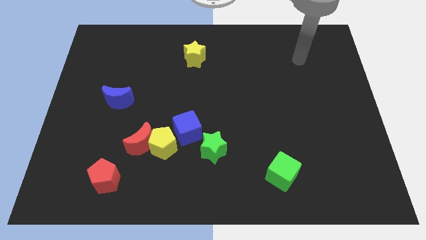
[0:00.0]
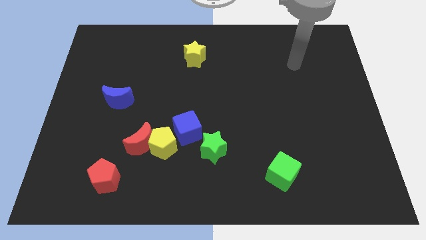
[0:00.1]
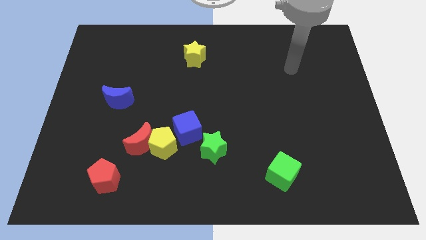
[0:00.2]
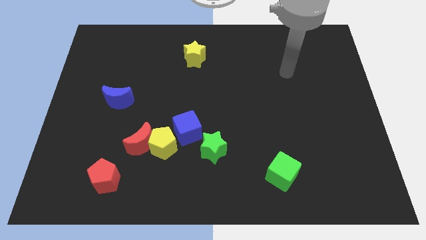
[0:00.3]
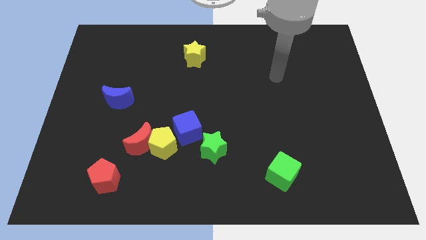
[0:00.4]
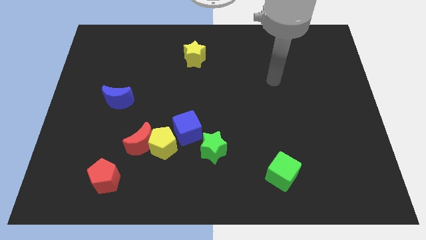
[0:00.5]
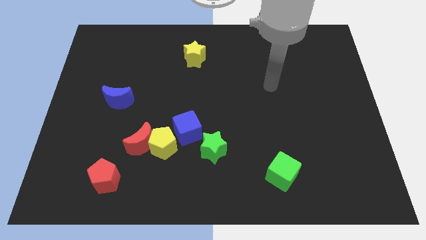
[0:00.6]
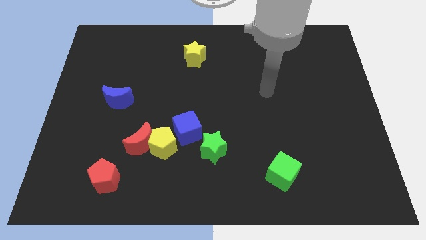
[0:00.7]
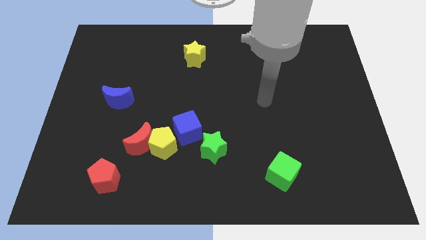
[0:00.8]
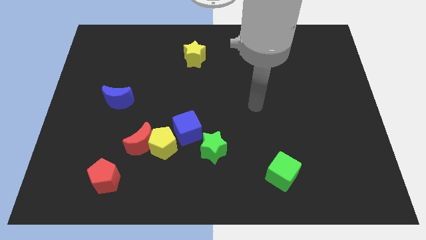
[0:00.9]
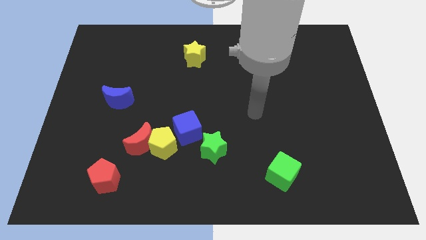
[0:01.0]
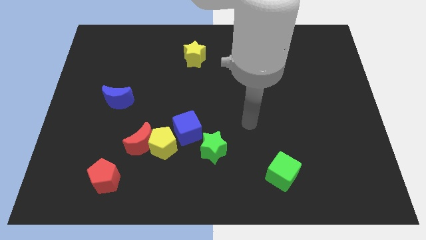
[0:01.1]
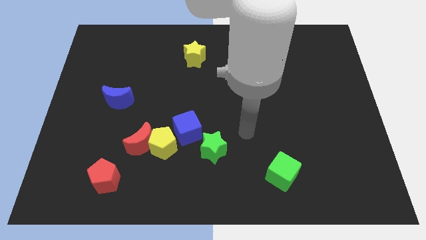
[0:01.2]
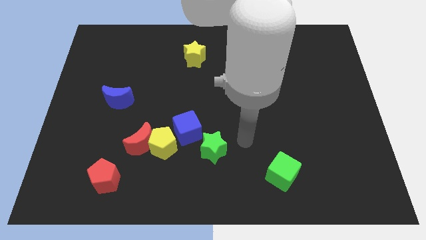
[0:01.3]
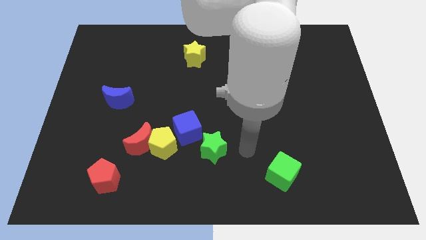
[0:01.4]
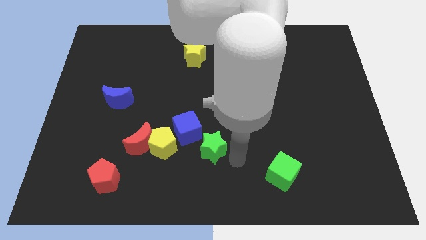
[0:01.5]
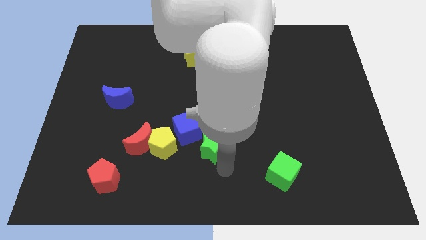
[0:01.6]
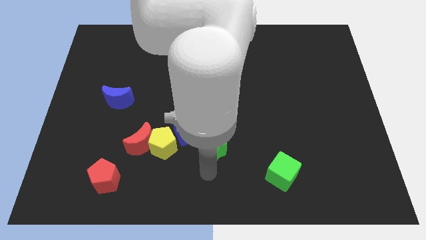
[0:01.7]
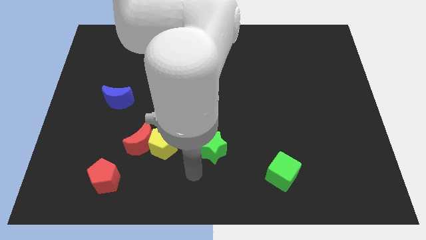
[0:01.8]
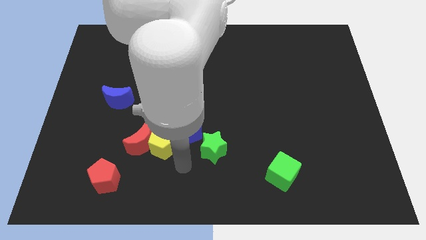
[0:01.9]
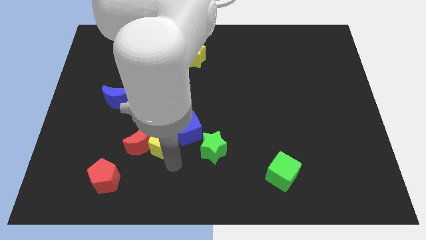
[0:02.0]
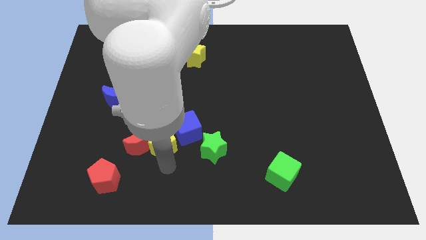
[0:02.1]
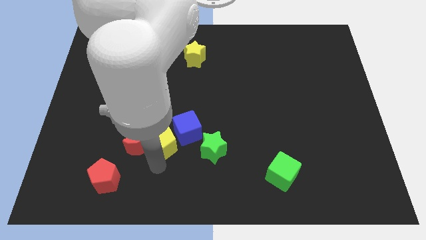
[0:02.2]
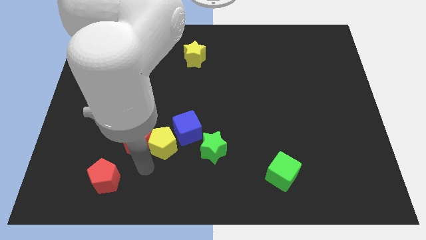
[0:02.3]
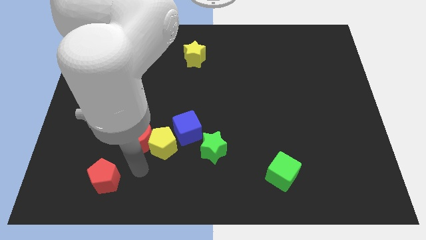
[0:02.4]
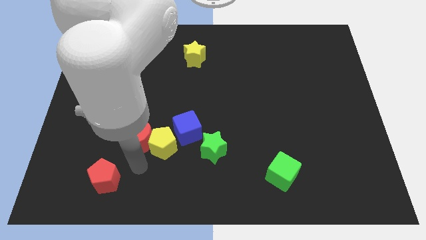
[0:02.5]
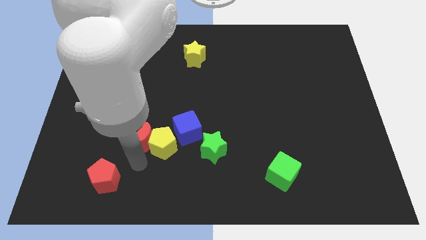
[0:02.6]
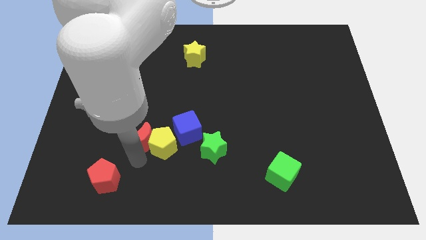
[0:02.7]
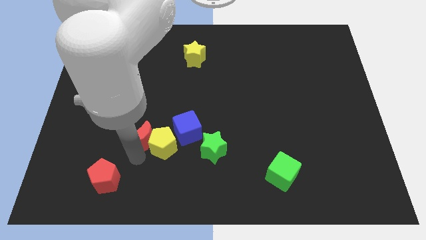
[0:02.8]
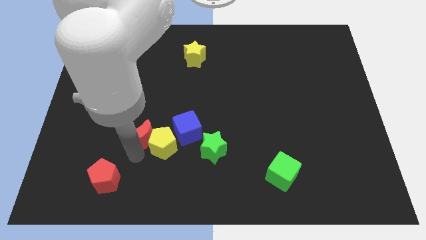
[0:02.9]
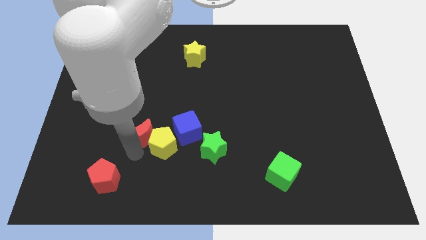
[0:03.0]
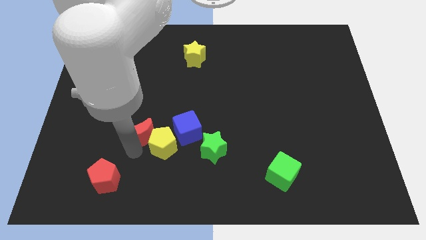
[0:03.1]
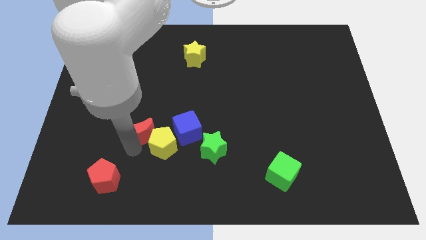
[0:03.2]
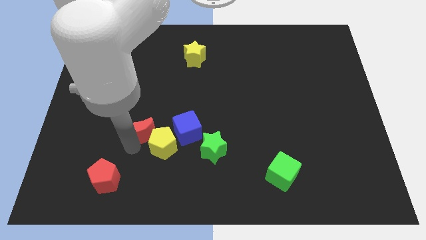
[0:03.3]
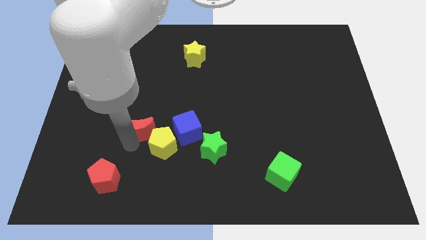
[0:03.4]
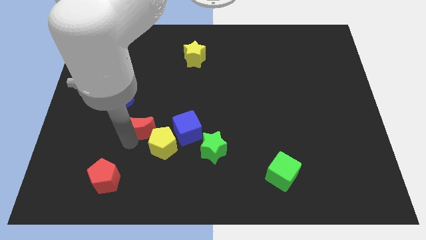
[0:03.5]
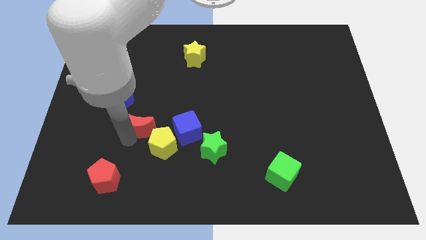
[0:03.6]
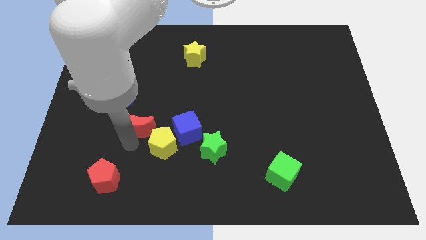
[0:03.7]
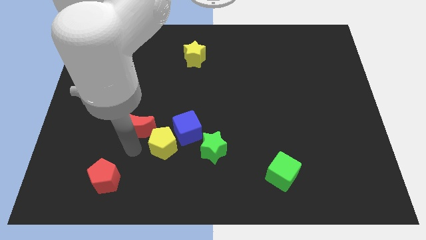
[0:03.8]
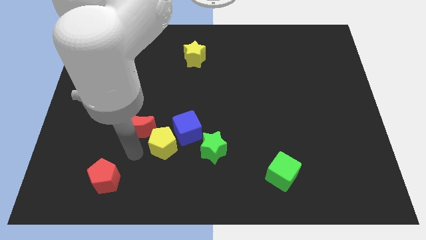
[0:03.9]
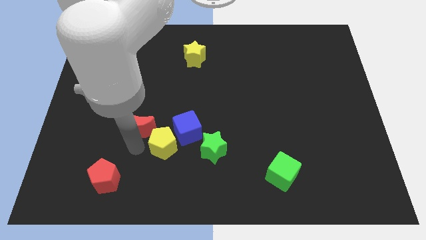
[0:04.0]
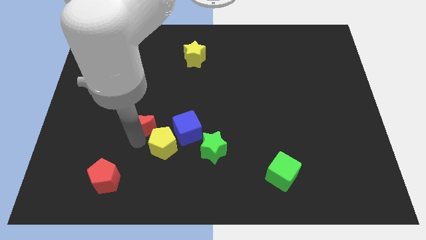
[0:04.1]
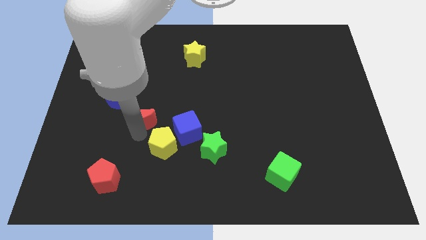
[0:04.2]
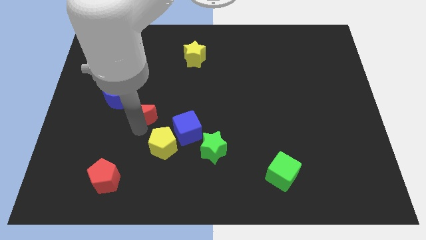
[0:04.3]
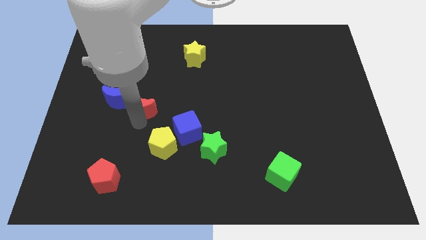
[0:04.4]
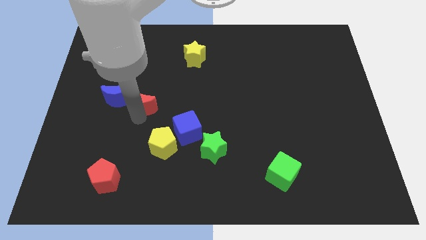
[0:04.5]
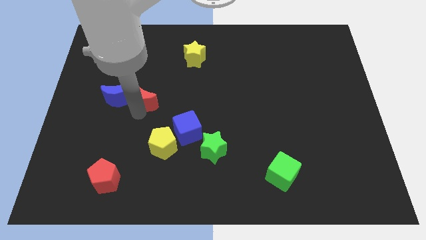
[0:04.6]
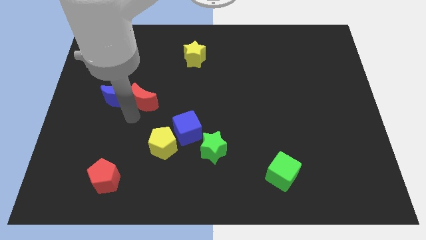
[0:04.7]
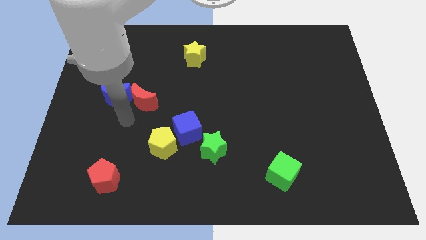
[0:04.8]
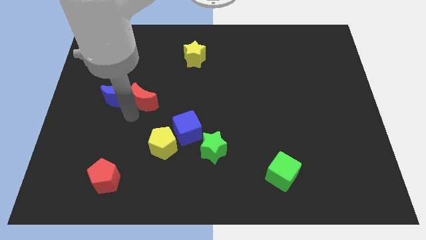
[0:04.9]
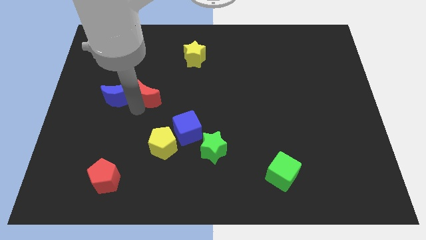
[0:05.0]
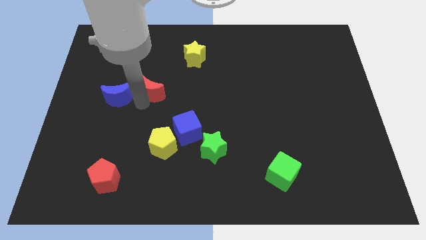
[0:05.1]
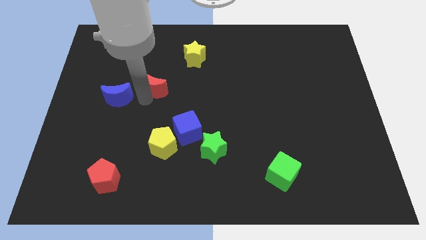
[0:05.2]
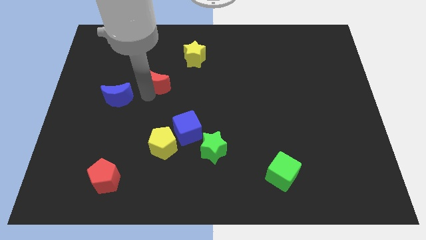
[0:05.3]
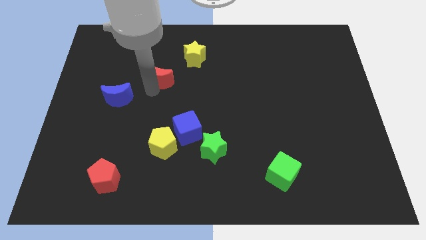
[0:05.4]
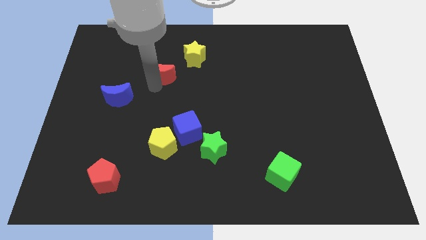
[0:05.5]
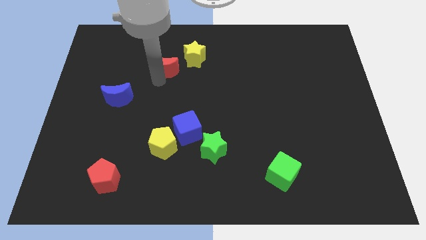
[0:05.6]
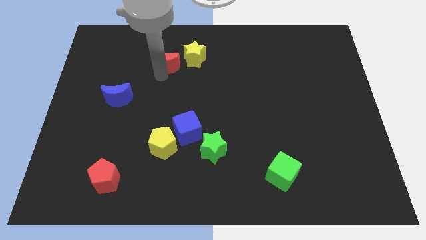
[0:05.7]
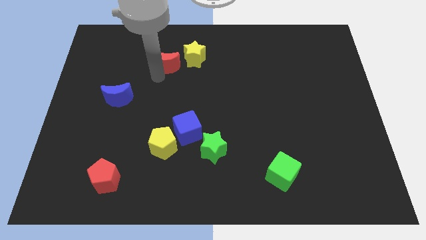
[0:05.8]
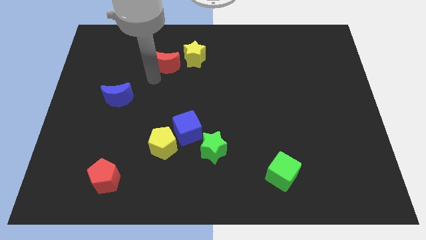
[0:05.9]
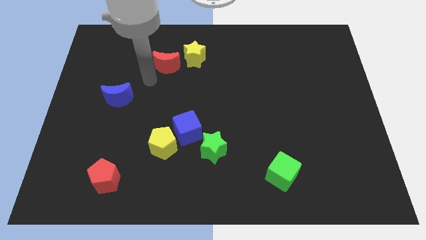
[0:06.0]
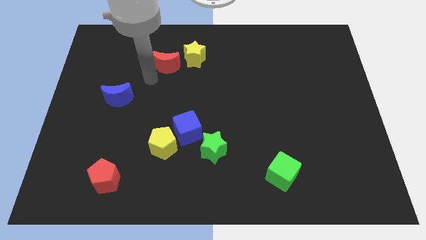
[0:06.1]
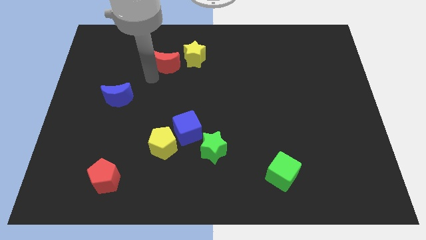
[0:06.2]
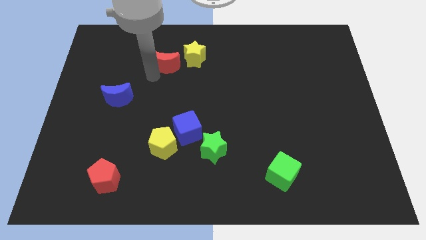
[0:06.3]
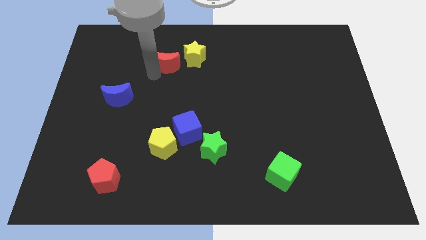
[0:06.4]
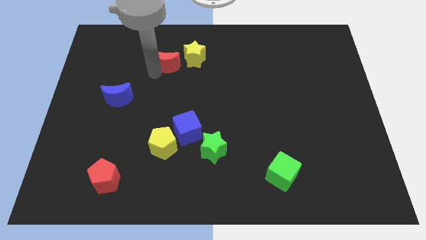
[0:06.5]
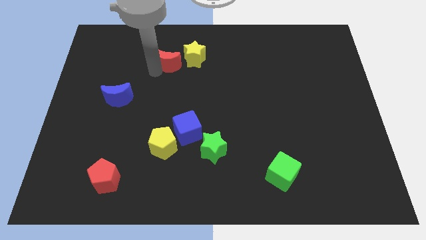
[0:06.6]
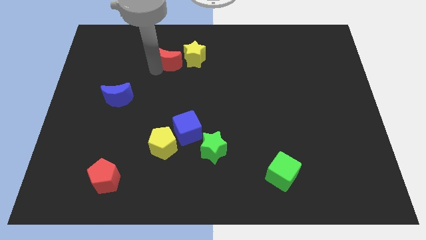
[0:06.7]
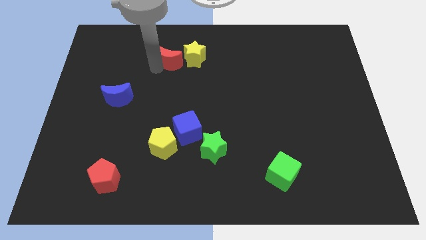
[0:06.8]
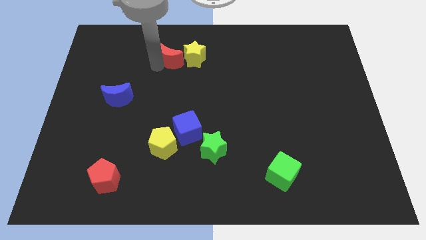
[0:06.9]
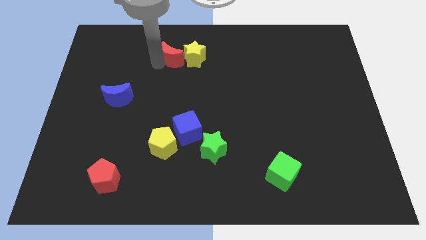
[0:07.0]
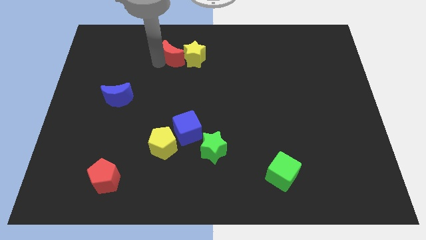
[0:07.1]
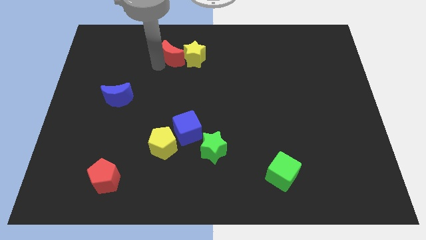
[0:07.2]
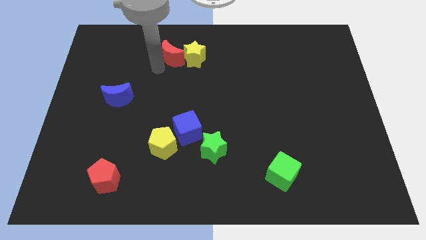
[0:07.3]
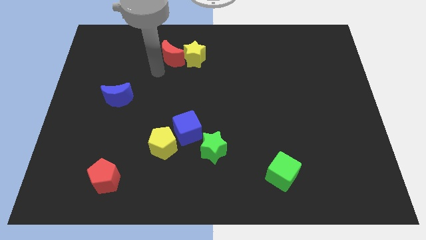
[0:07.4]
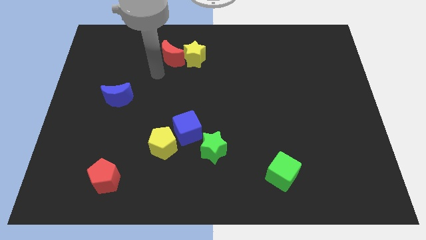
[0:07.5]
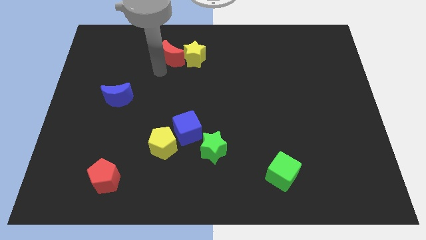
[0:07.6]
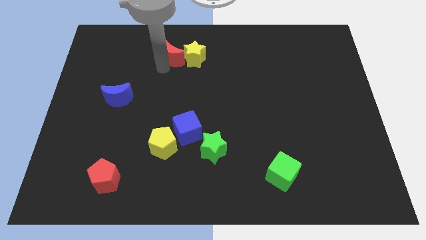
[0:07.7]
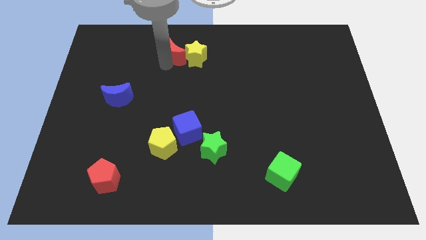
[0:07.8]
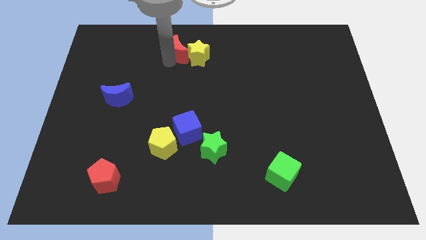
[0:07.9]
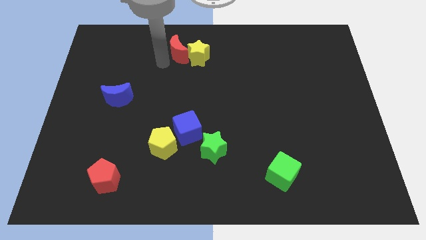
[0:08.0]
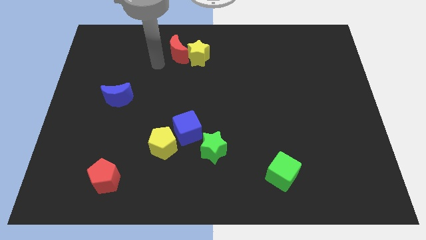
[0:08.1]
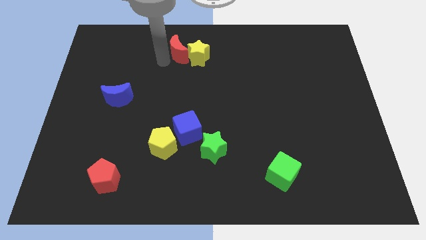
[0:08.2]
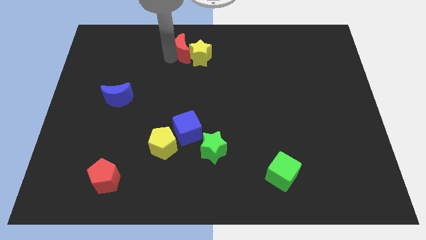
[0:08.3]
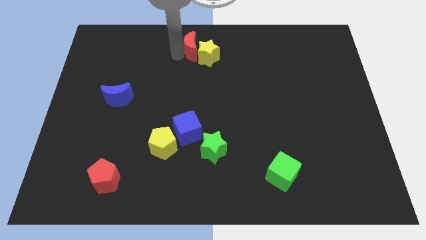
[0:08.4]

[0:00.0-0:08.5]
slide the red moon to the top side
